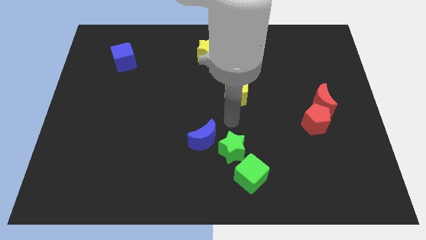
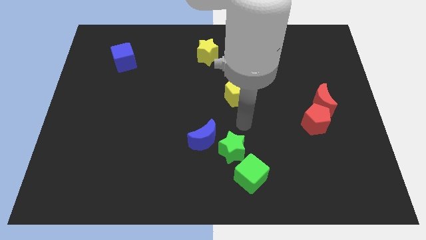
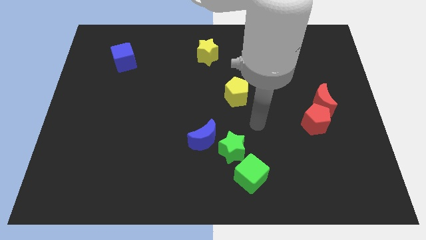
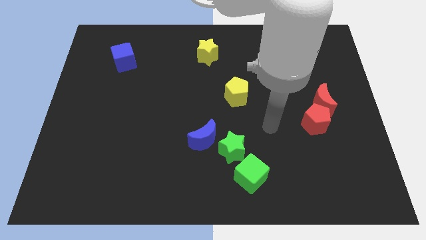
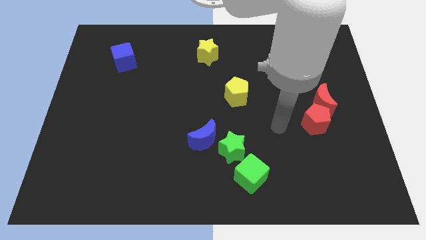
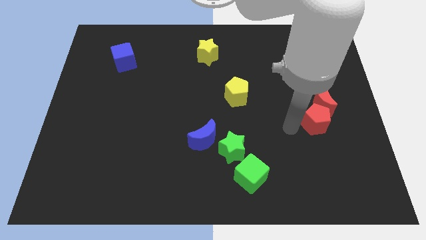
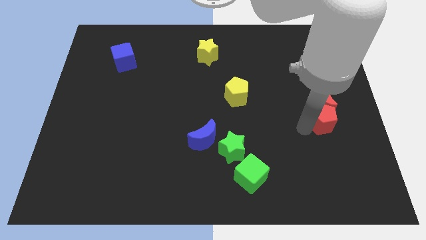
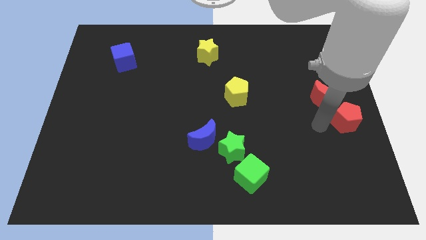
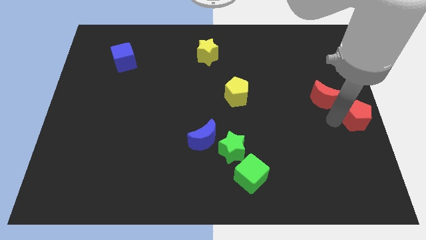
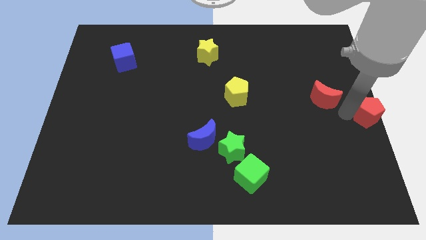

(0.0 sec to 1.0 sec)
pull the red moon apart from the red pentagon

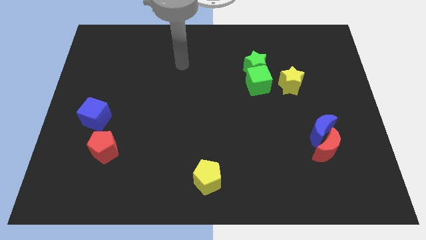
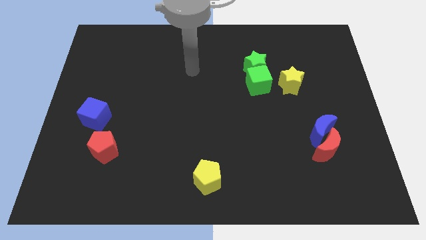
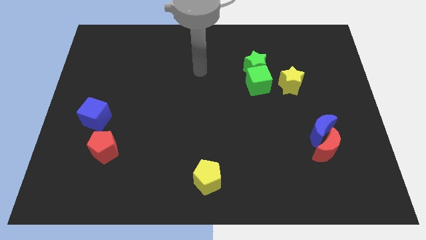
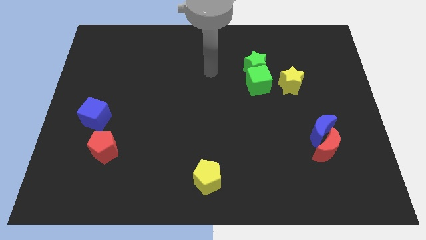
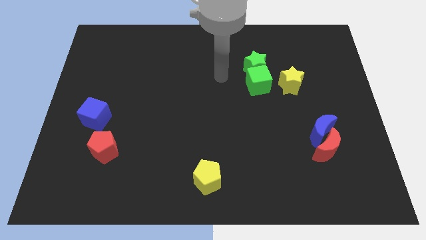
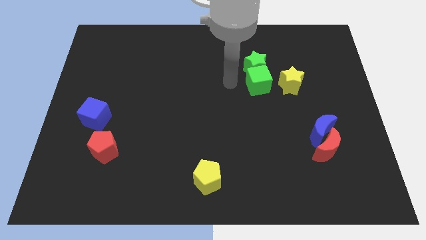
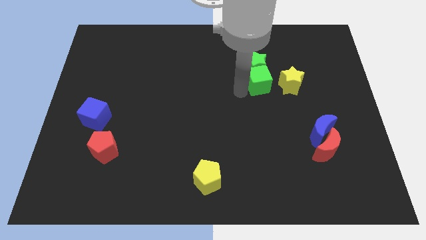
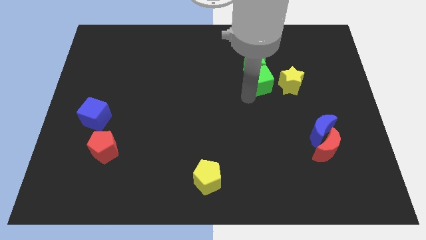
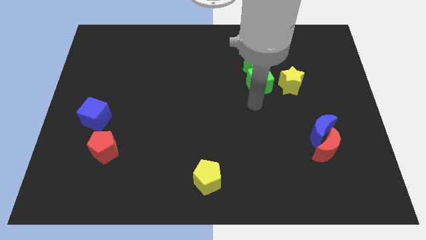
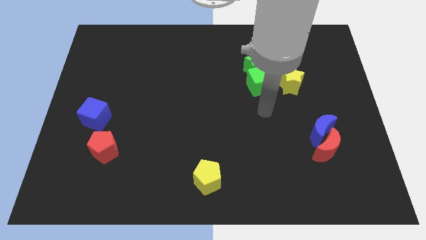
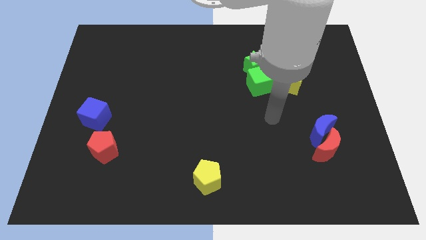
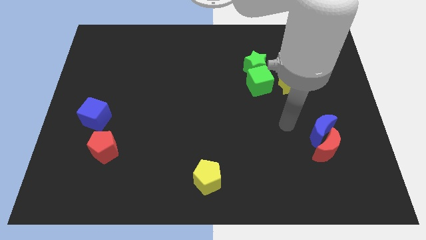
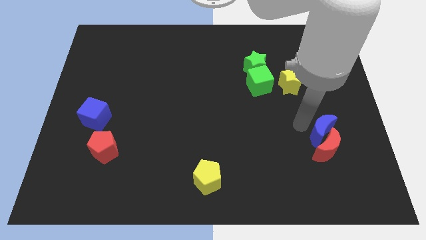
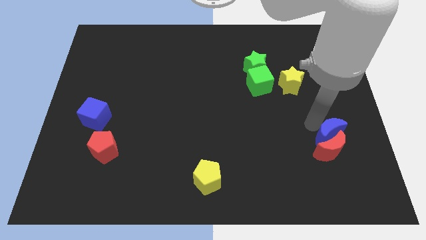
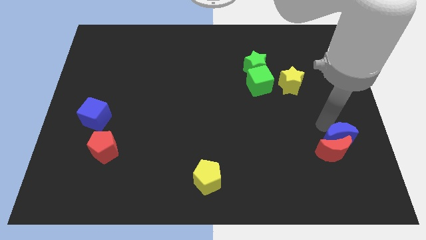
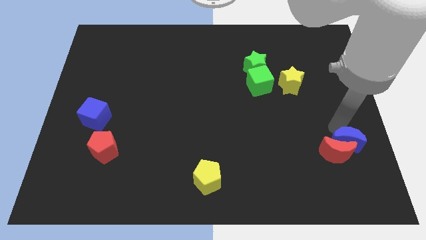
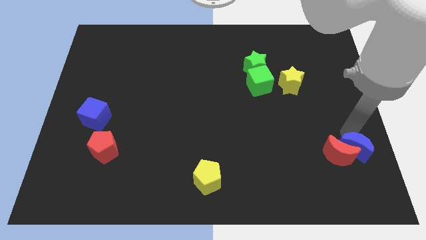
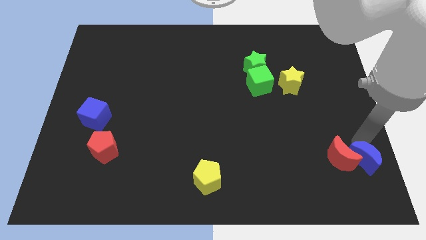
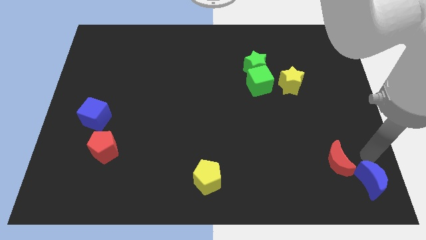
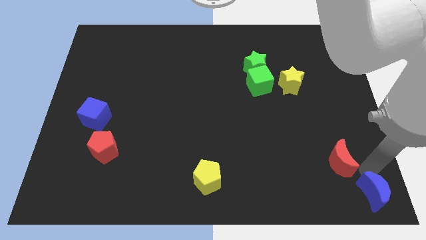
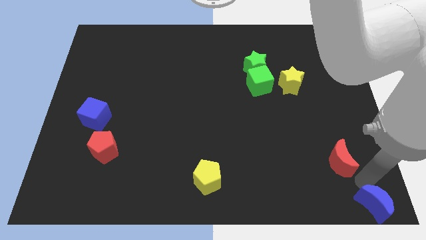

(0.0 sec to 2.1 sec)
pull the red moon apart from the blue moon

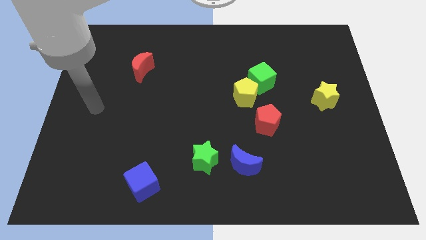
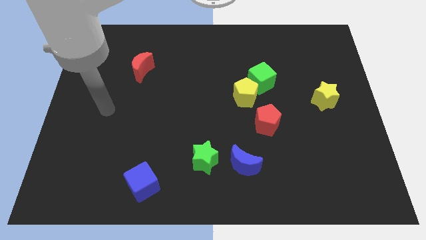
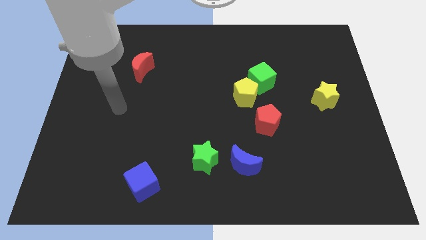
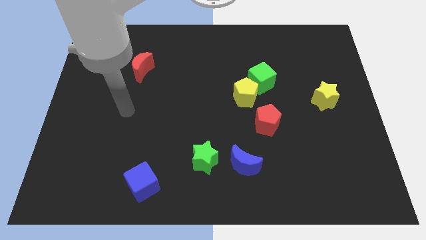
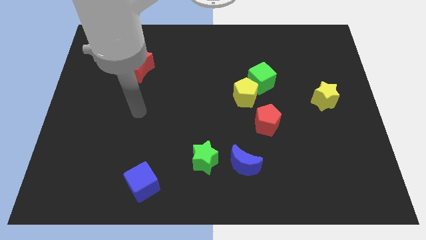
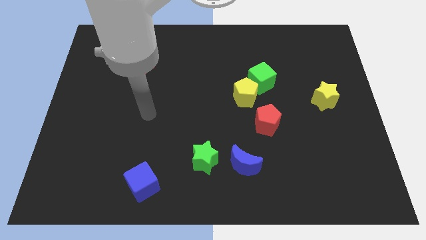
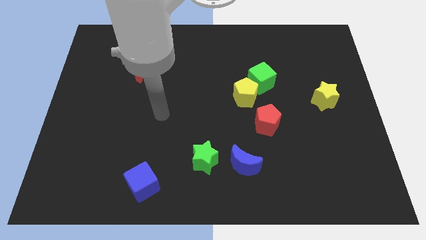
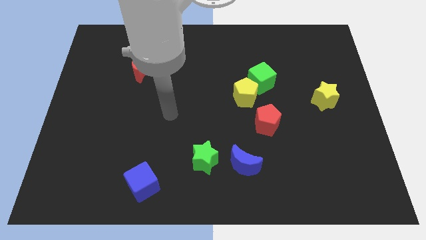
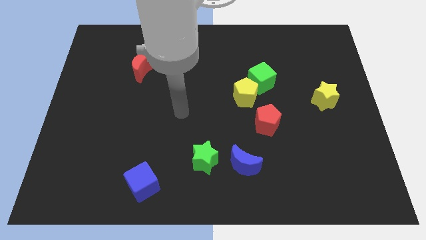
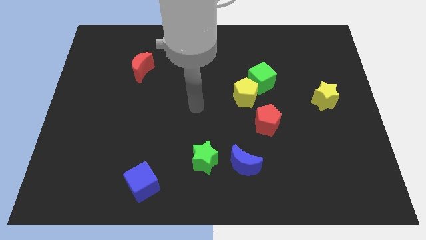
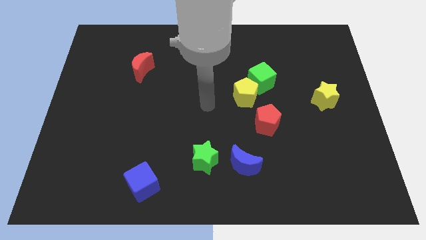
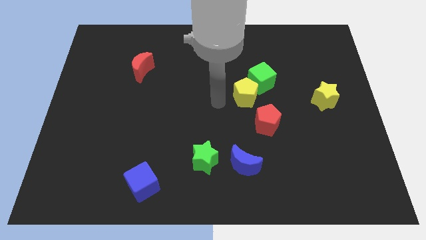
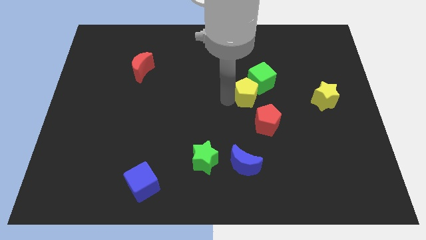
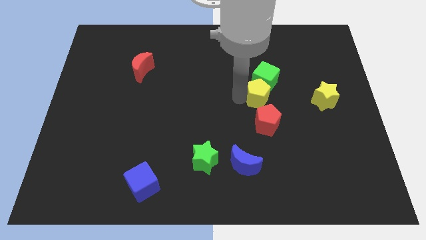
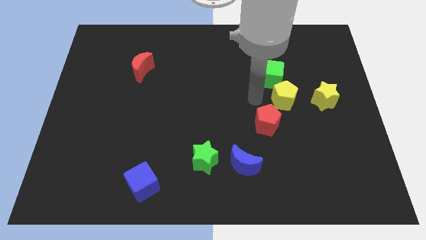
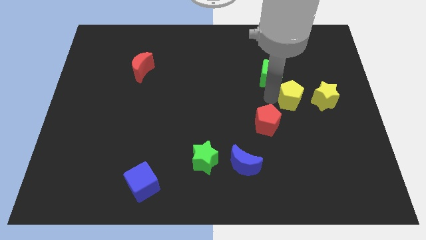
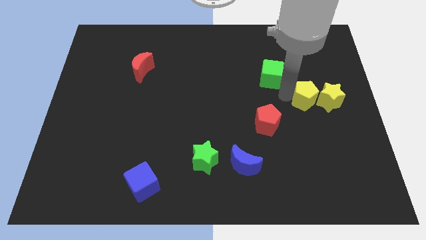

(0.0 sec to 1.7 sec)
pull the green cube apart from the yellow pentagon

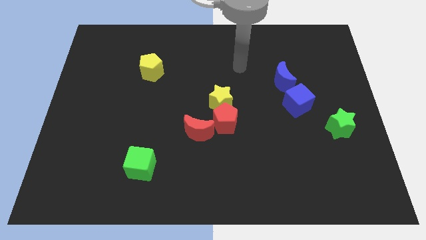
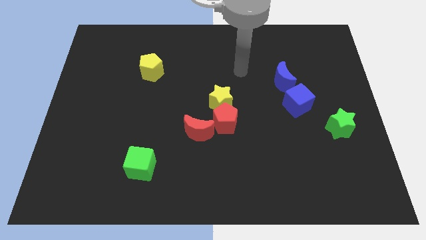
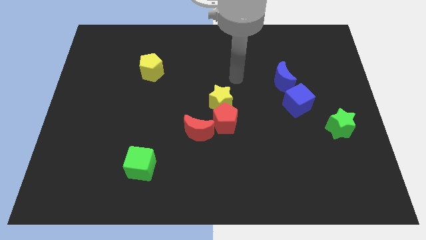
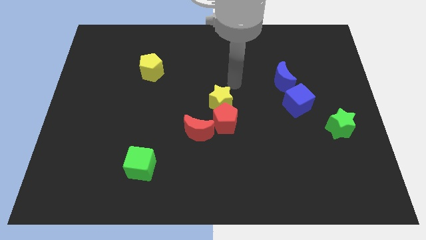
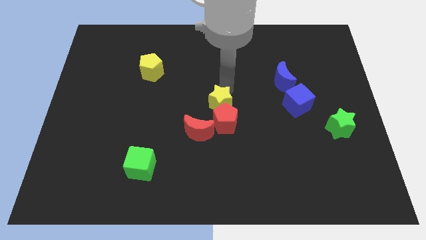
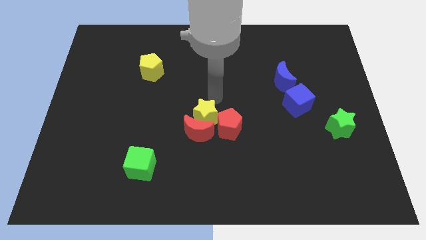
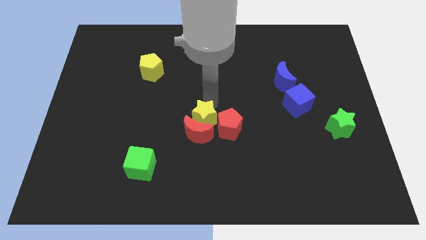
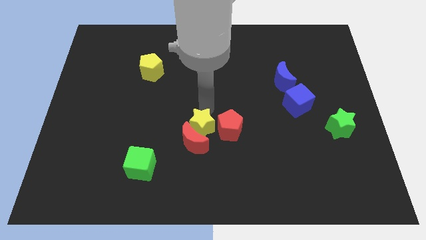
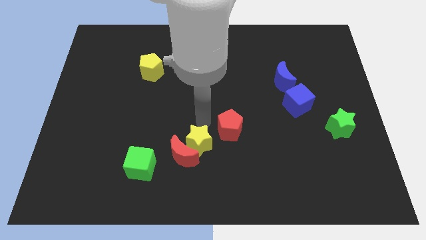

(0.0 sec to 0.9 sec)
separate the red pentagon from the yellow star and red moon

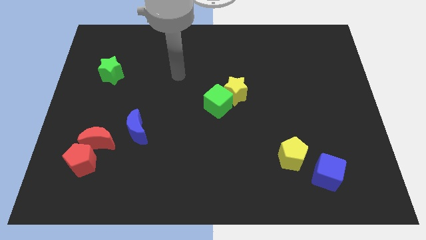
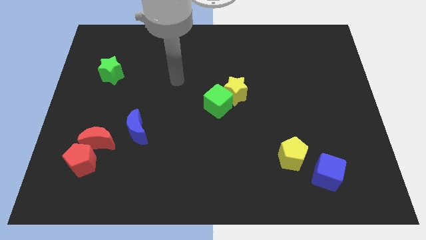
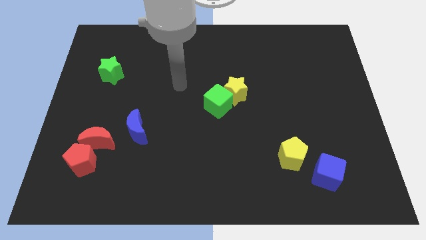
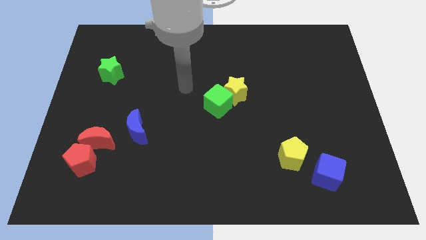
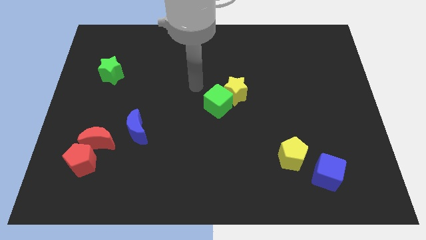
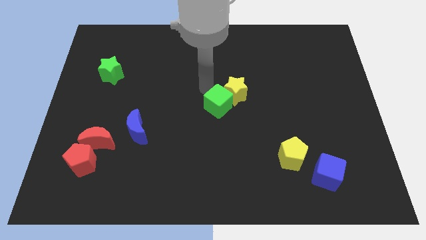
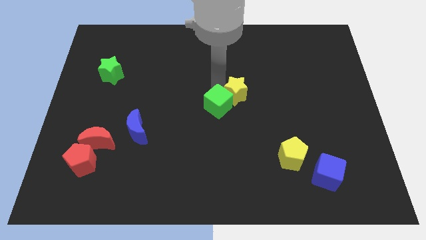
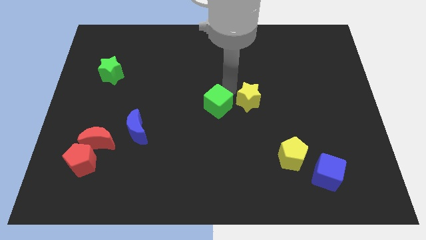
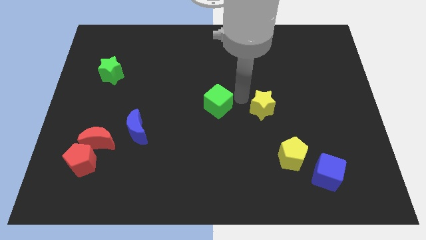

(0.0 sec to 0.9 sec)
pull the green cube apart from the yellow star

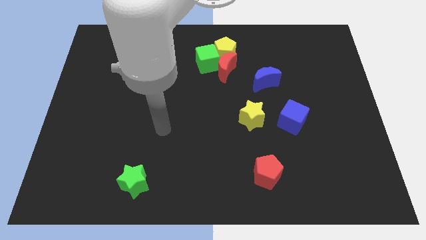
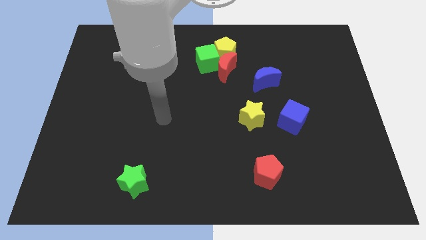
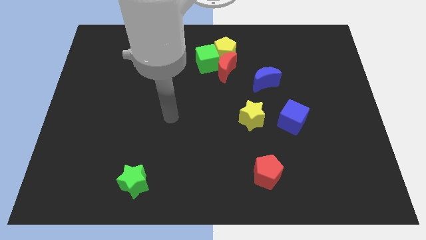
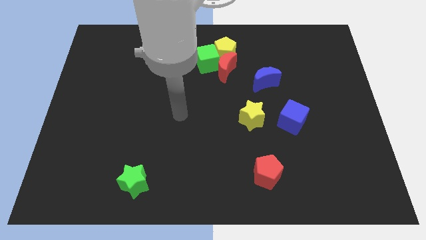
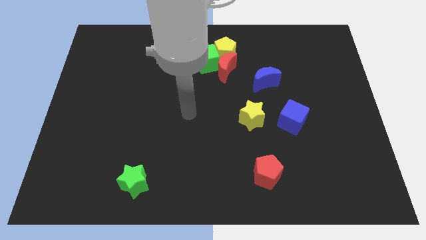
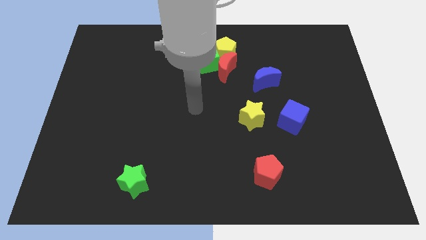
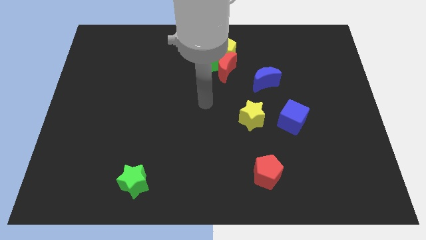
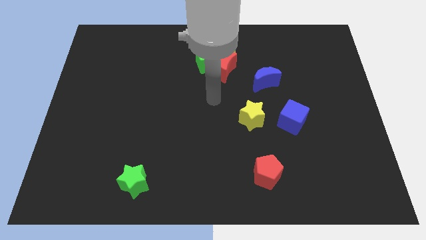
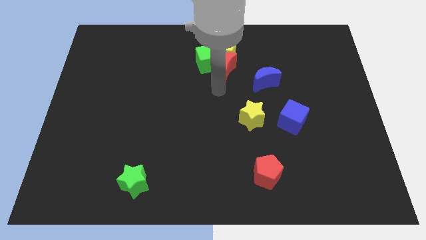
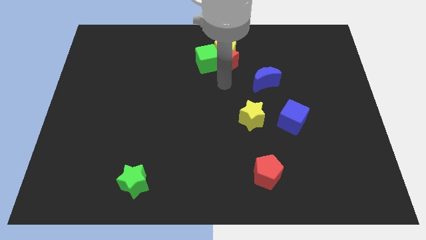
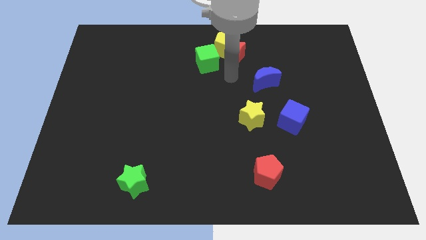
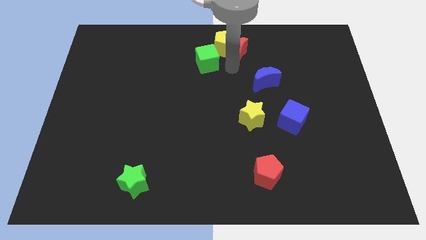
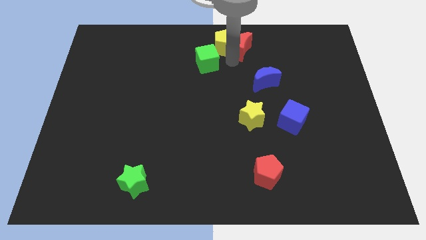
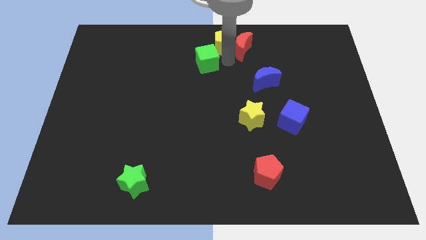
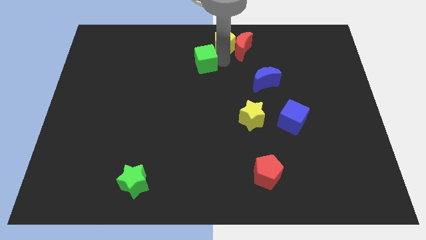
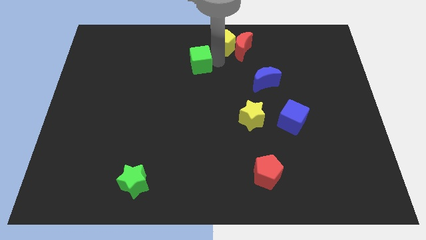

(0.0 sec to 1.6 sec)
move the green cube away from the red moon and yellow pentagon

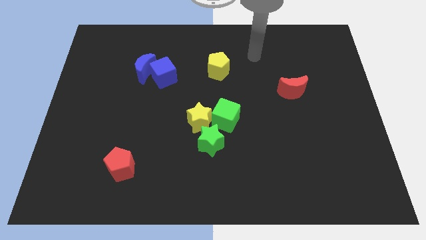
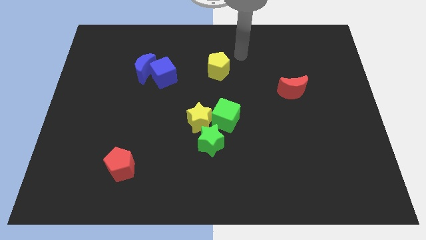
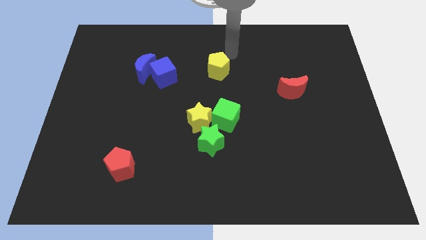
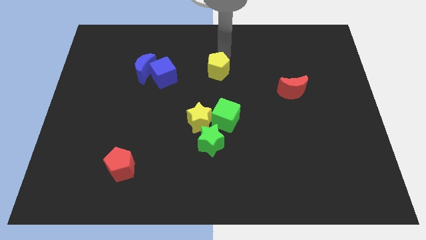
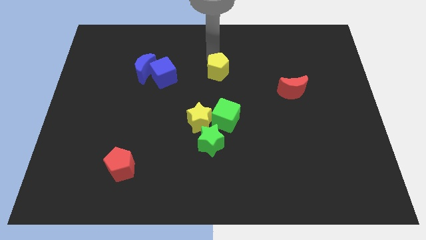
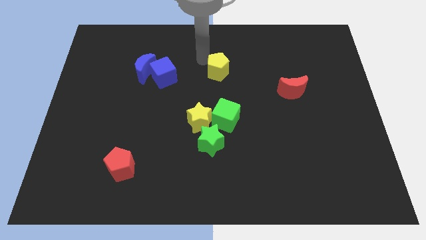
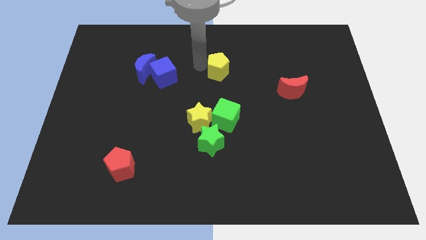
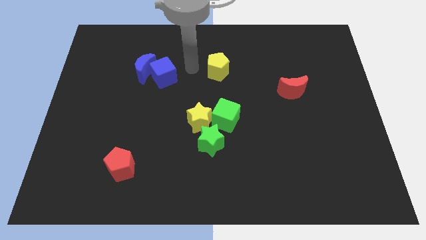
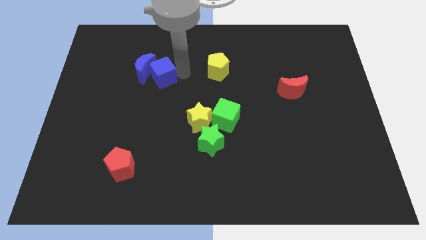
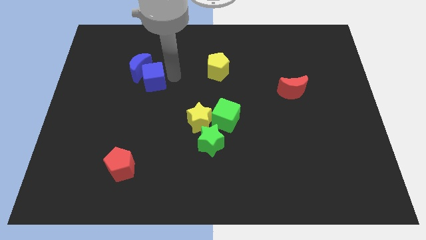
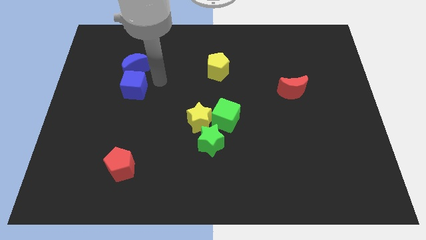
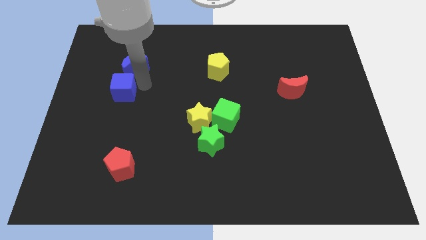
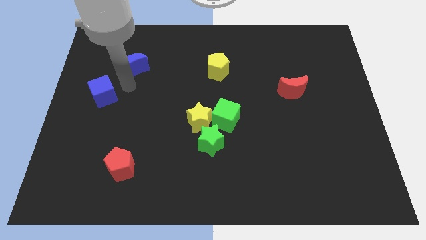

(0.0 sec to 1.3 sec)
pull the blue moon apart from the blue cube
